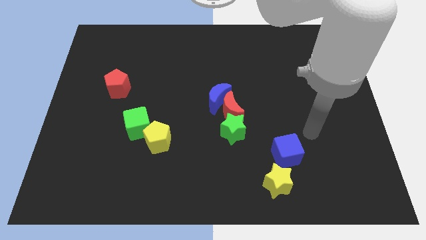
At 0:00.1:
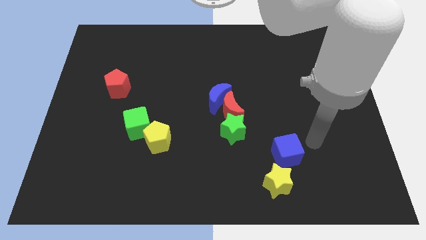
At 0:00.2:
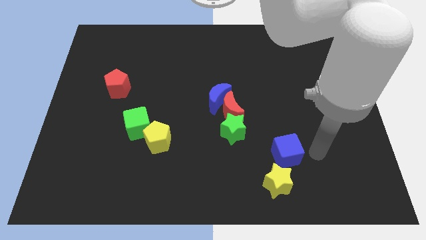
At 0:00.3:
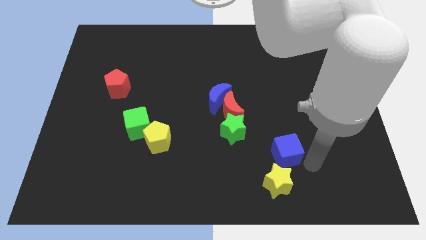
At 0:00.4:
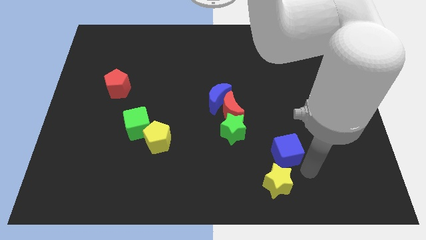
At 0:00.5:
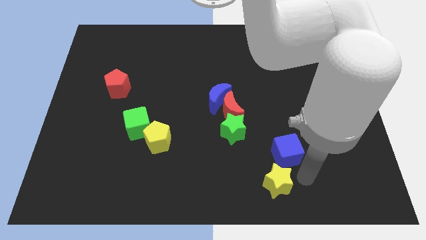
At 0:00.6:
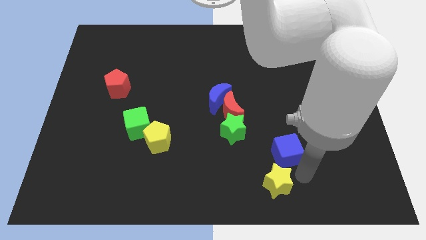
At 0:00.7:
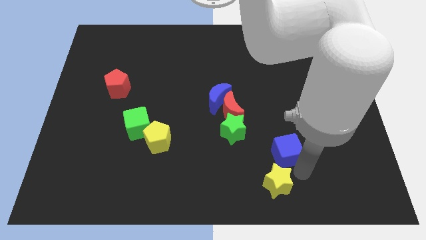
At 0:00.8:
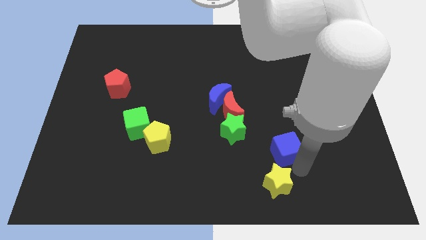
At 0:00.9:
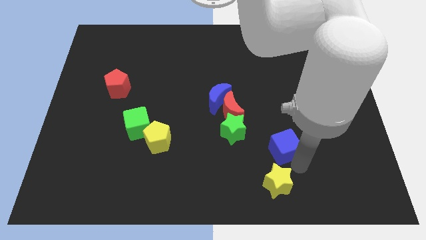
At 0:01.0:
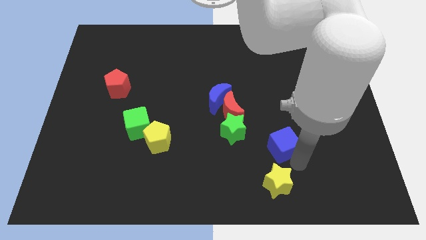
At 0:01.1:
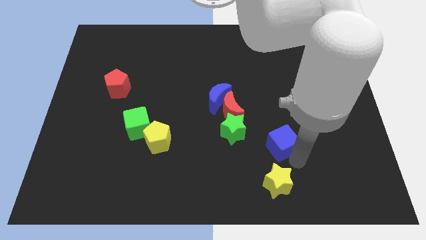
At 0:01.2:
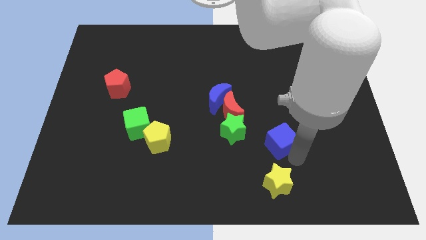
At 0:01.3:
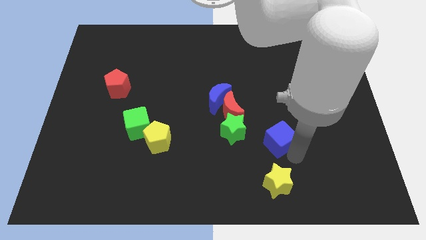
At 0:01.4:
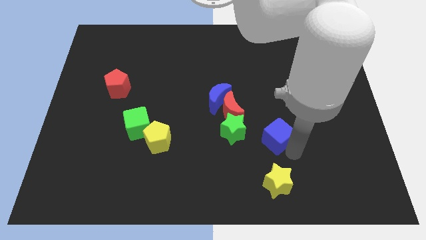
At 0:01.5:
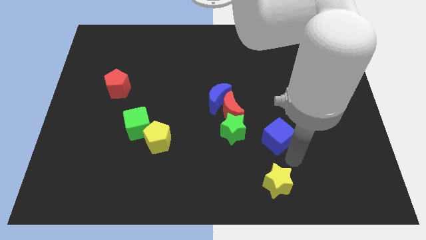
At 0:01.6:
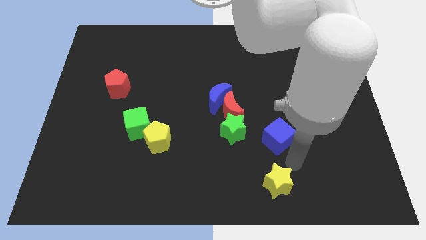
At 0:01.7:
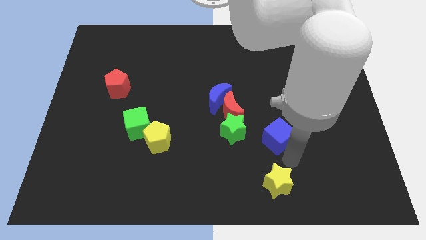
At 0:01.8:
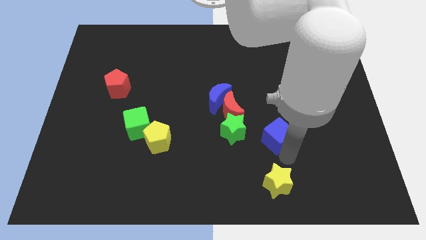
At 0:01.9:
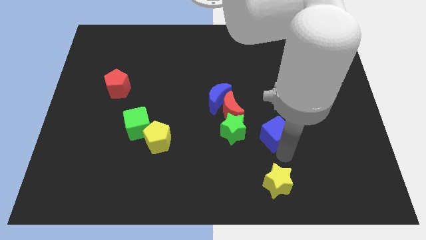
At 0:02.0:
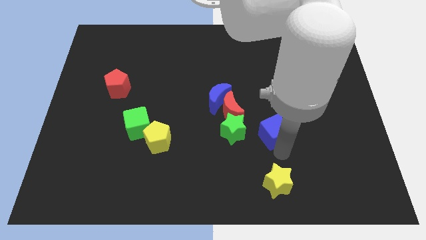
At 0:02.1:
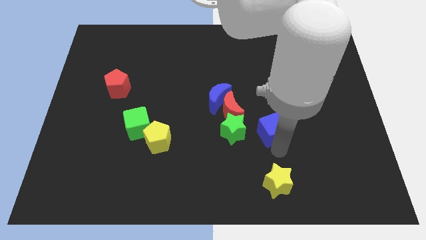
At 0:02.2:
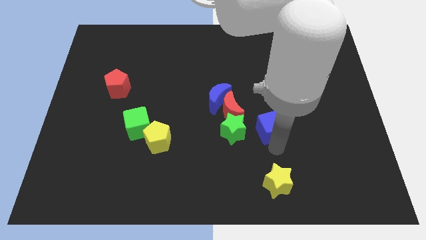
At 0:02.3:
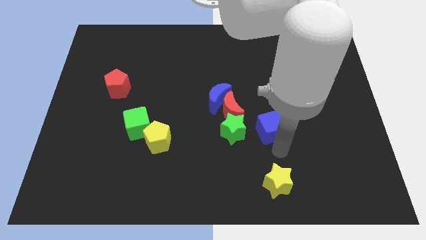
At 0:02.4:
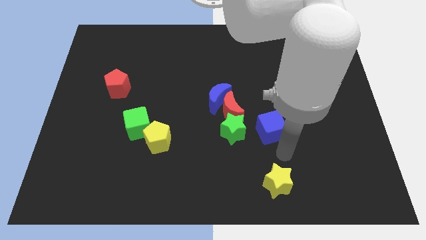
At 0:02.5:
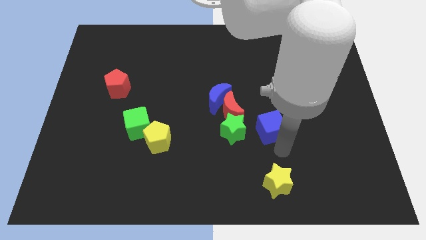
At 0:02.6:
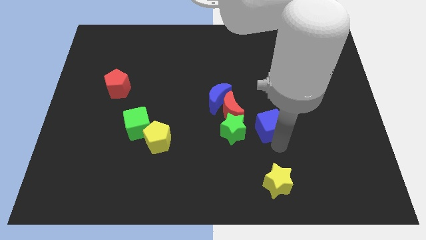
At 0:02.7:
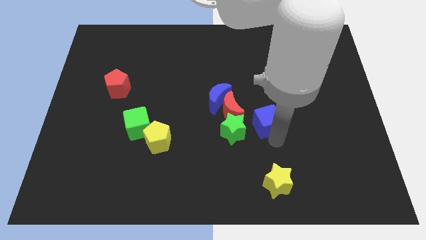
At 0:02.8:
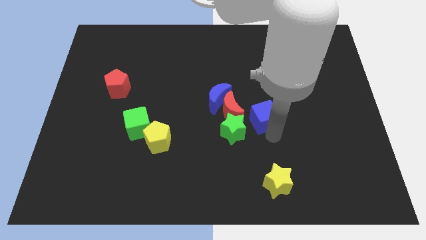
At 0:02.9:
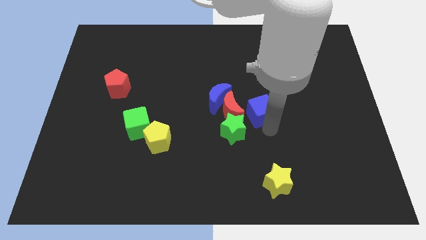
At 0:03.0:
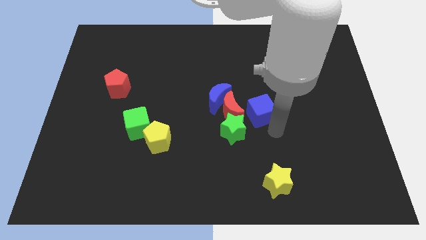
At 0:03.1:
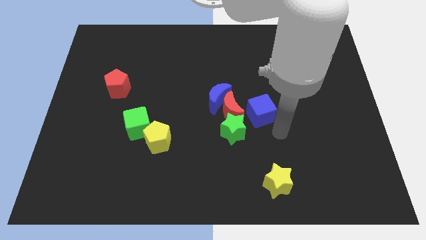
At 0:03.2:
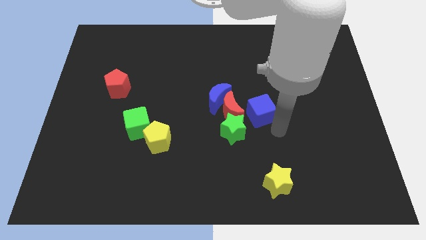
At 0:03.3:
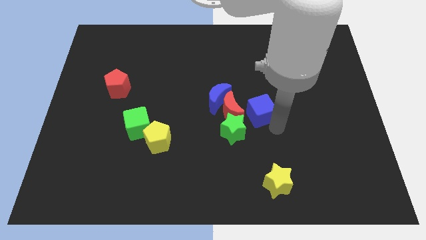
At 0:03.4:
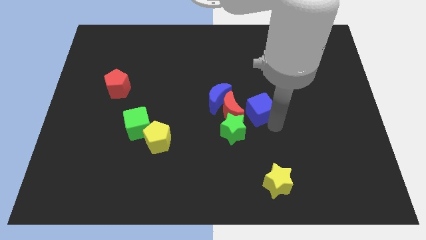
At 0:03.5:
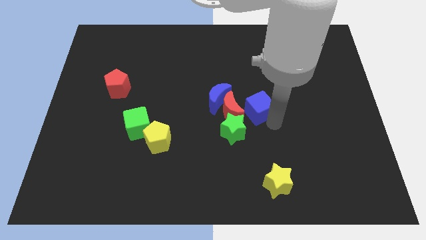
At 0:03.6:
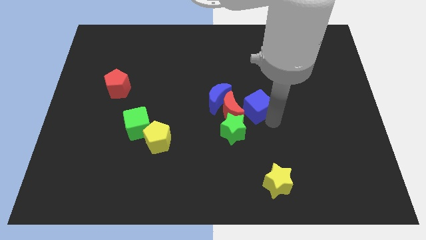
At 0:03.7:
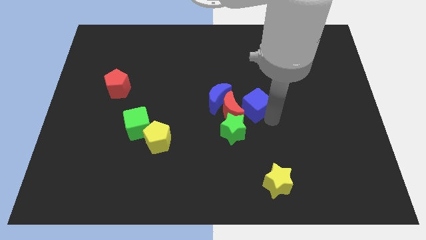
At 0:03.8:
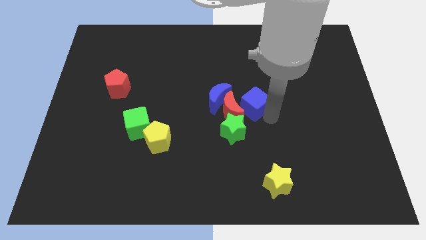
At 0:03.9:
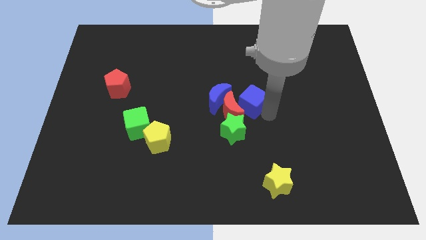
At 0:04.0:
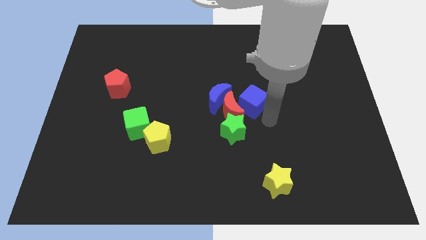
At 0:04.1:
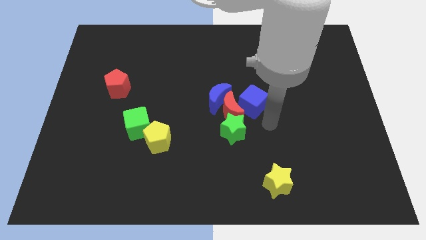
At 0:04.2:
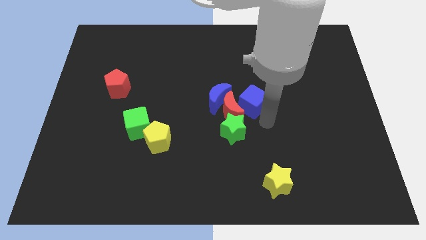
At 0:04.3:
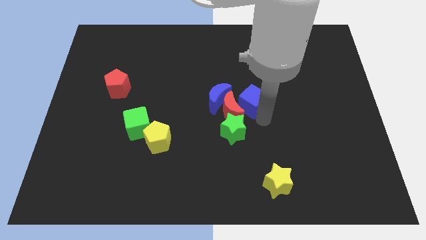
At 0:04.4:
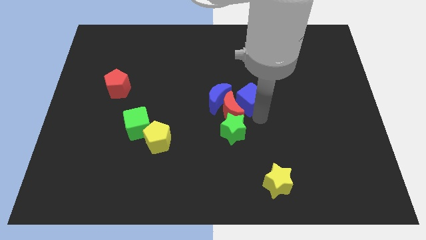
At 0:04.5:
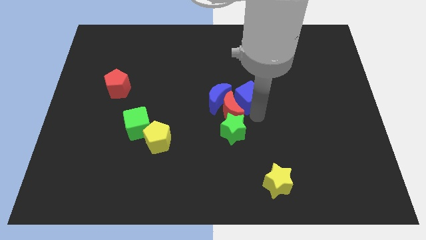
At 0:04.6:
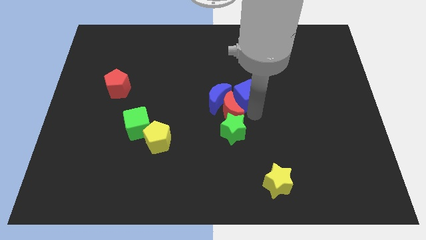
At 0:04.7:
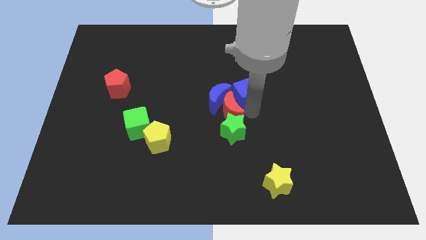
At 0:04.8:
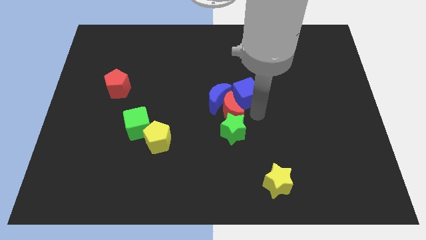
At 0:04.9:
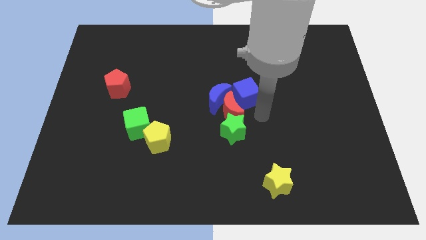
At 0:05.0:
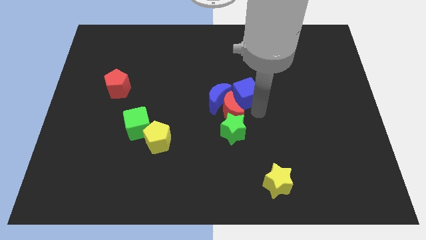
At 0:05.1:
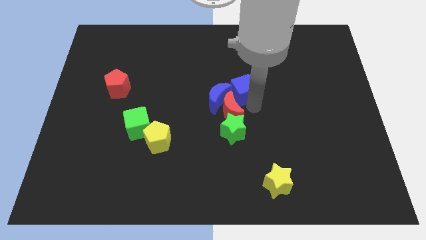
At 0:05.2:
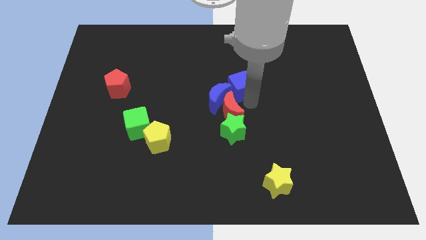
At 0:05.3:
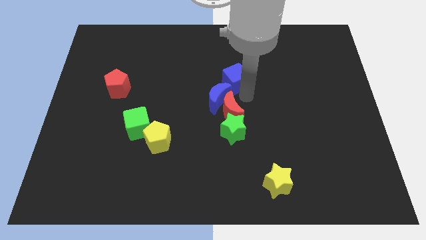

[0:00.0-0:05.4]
put the blue cube to the top side of the blue moon

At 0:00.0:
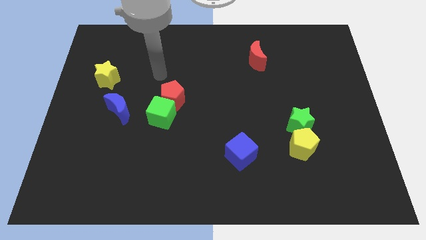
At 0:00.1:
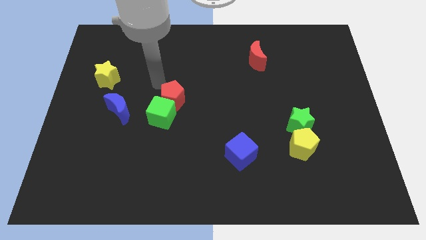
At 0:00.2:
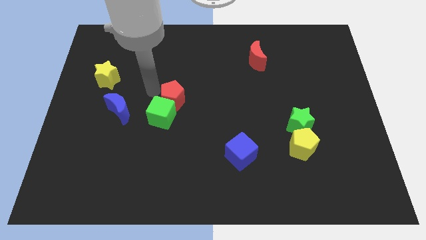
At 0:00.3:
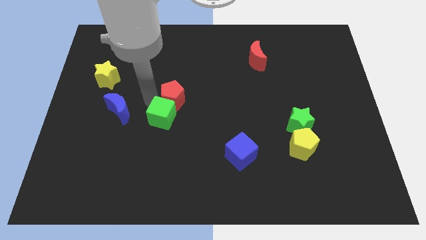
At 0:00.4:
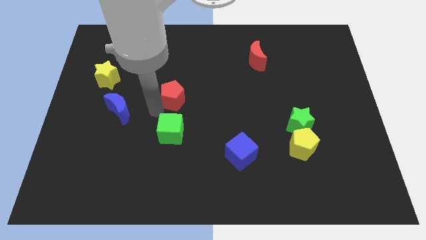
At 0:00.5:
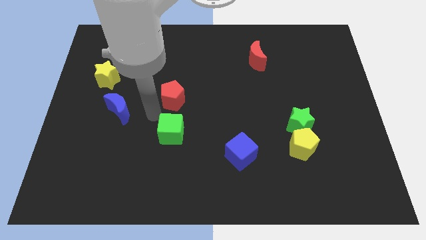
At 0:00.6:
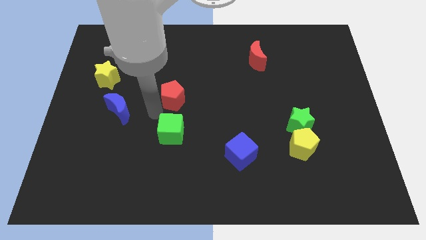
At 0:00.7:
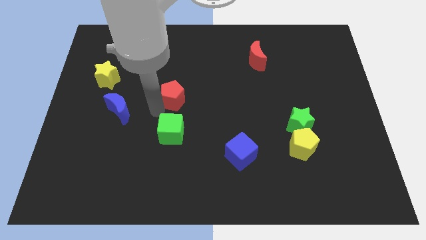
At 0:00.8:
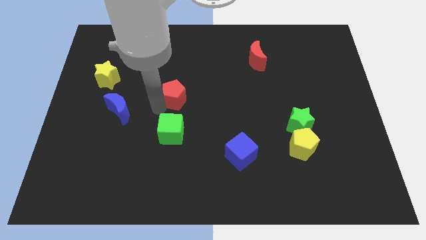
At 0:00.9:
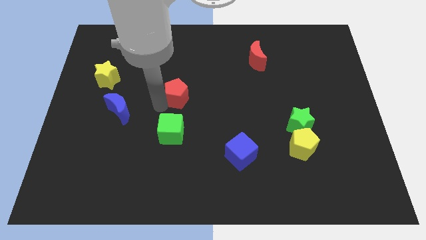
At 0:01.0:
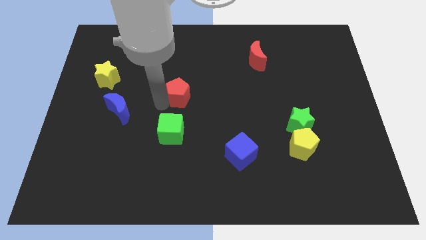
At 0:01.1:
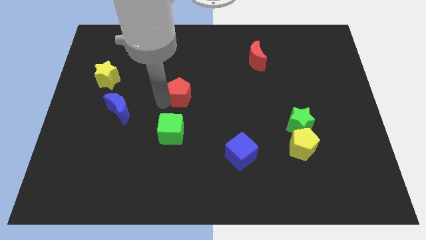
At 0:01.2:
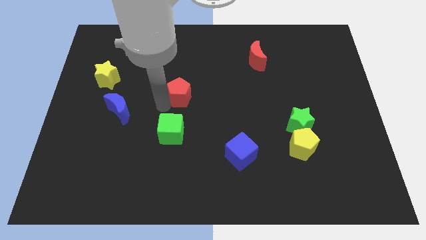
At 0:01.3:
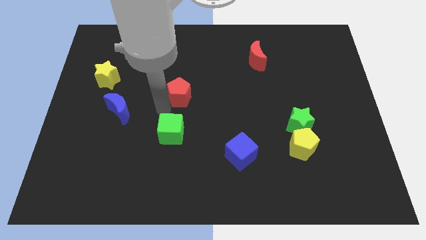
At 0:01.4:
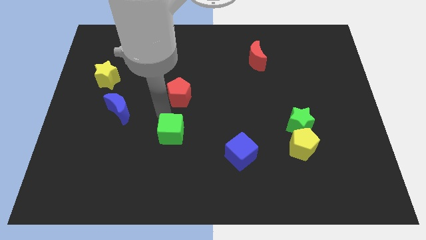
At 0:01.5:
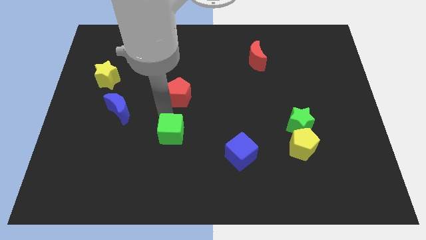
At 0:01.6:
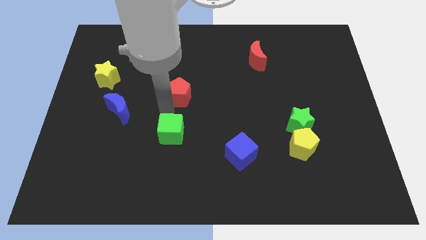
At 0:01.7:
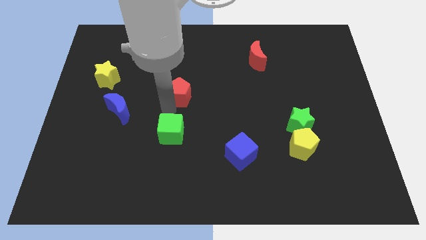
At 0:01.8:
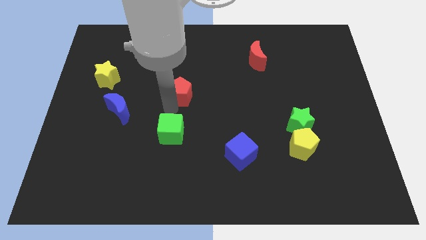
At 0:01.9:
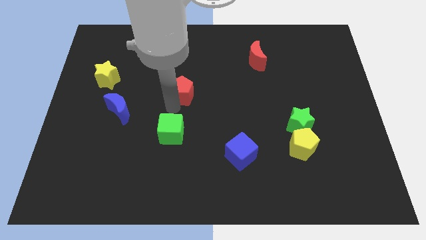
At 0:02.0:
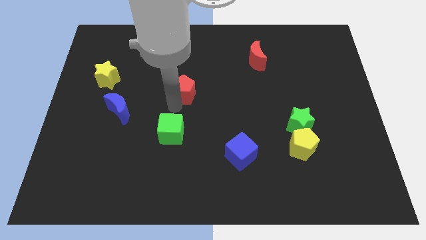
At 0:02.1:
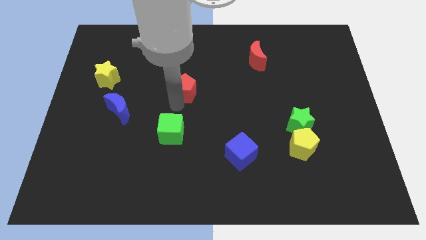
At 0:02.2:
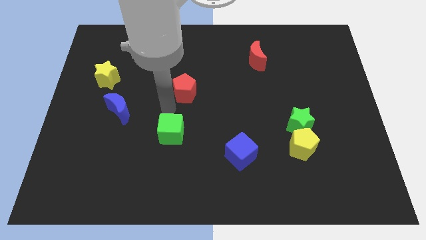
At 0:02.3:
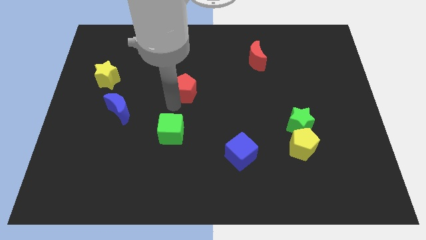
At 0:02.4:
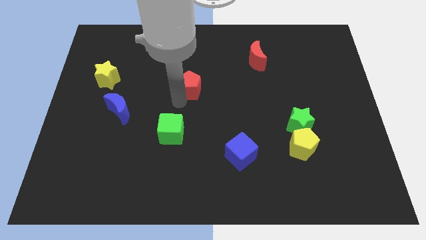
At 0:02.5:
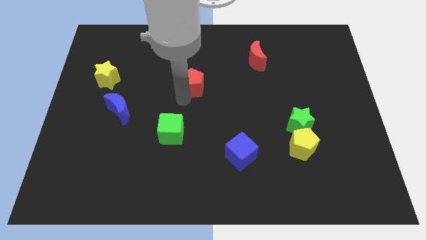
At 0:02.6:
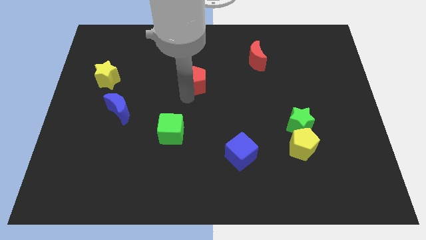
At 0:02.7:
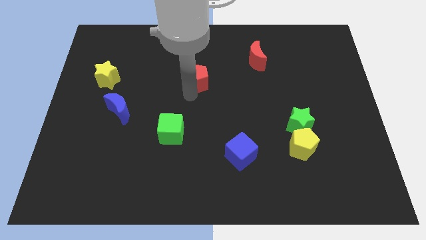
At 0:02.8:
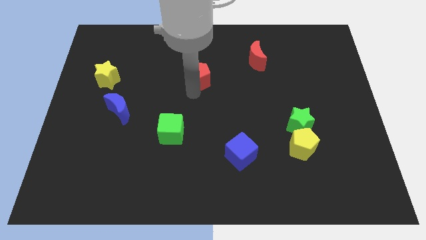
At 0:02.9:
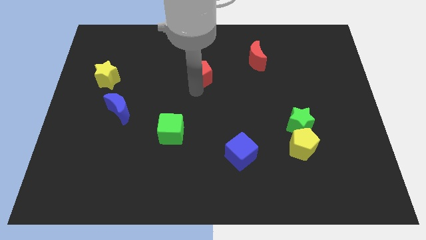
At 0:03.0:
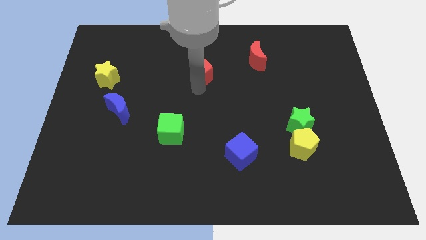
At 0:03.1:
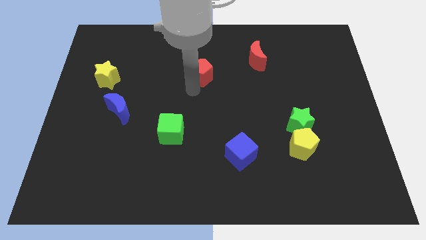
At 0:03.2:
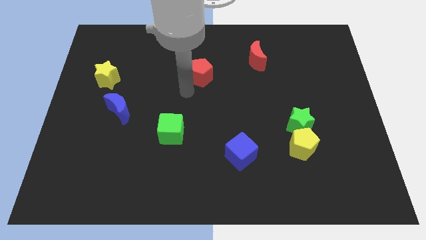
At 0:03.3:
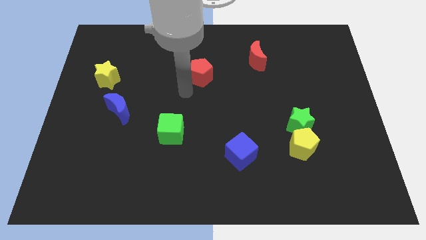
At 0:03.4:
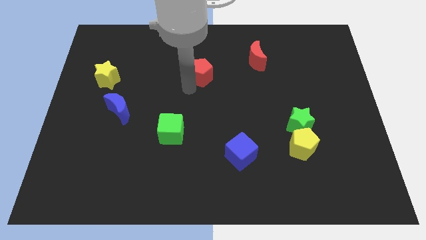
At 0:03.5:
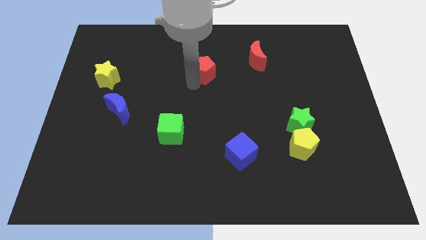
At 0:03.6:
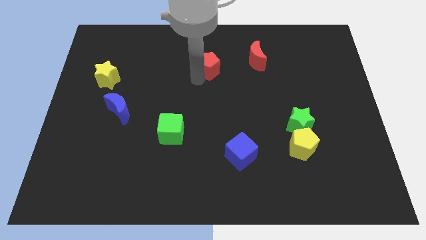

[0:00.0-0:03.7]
push the red pentagon just left of the red moon
